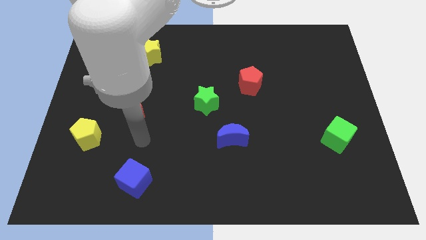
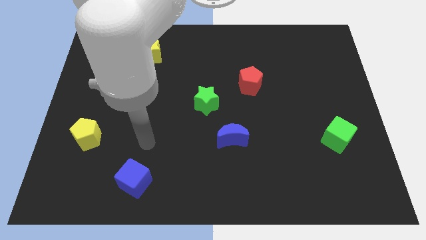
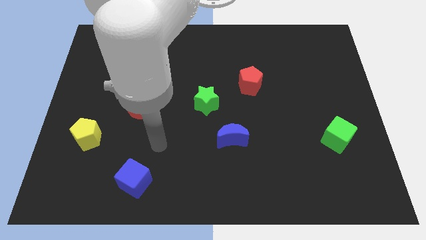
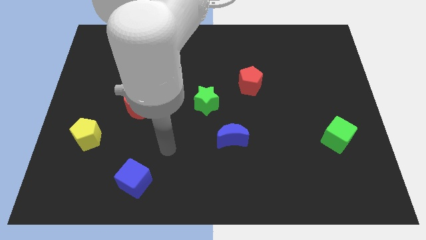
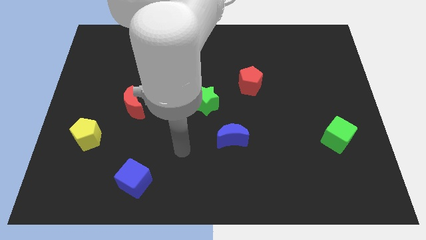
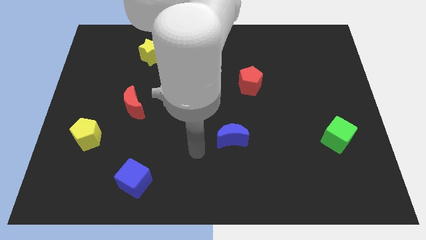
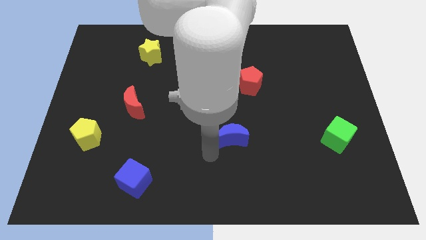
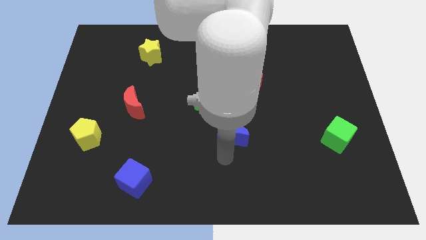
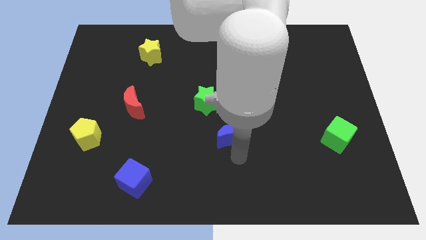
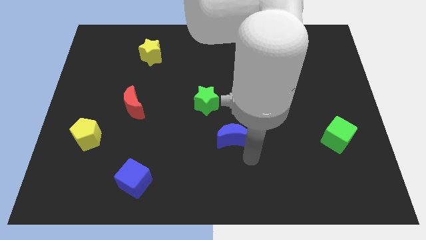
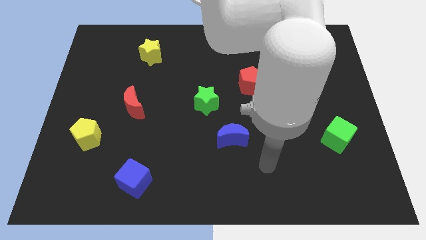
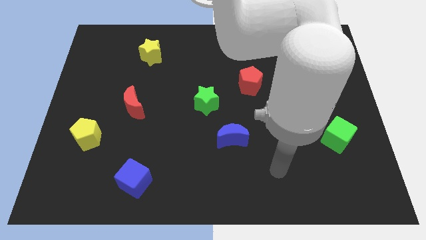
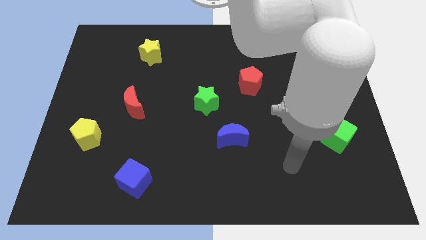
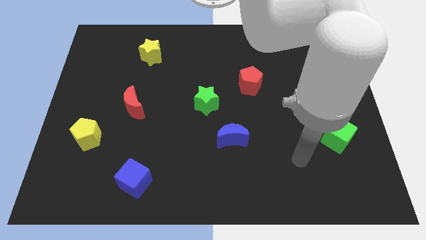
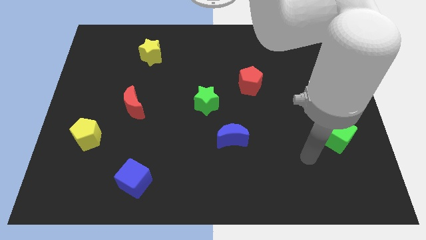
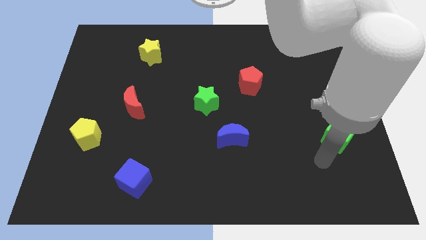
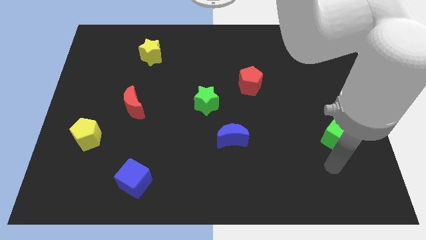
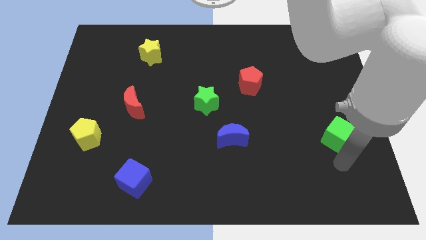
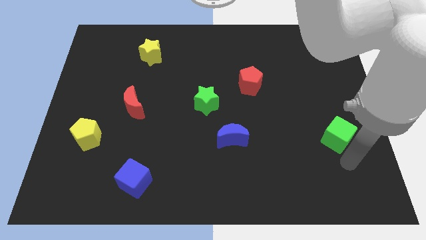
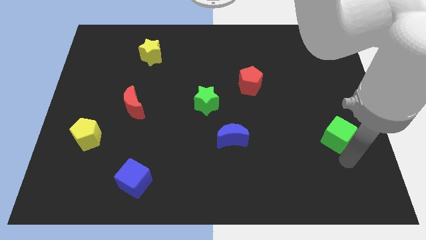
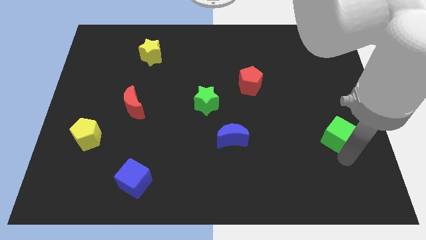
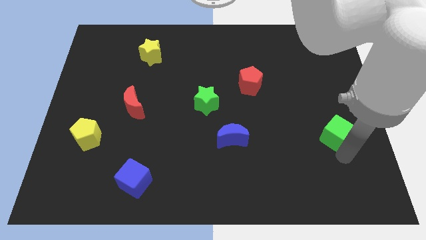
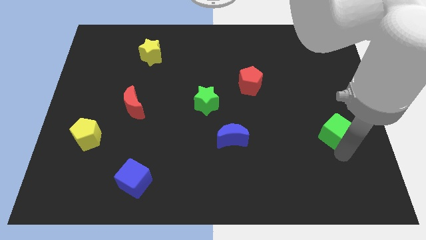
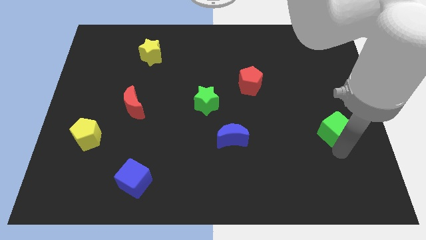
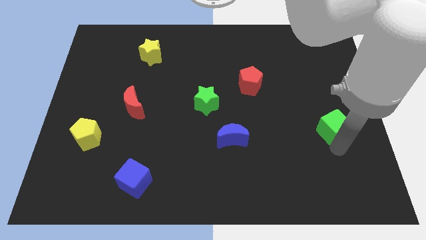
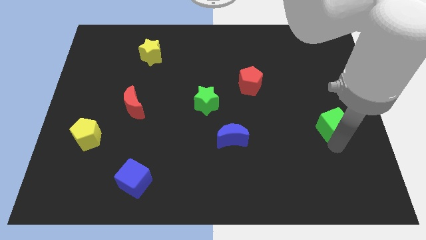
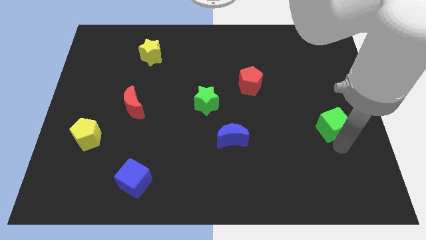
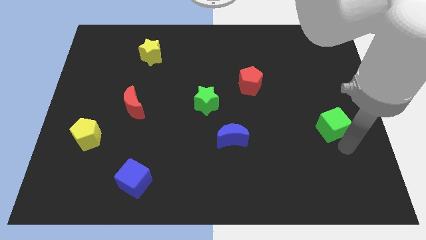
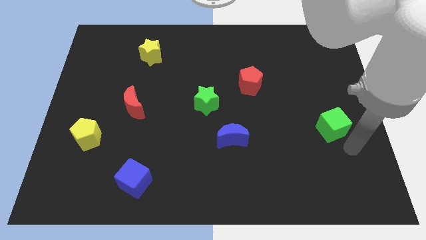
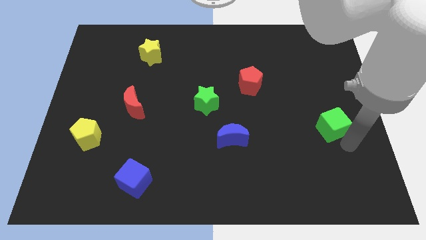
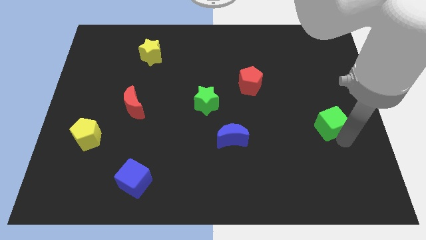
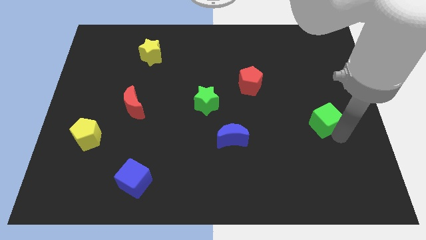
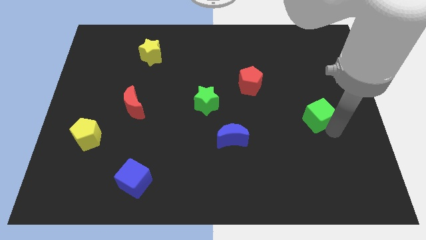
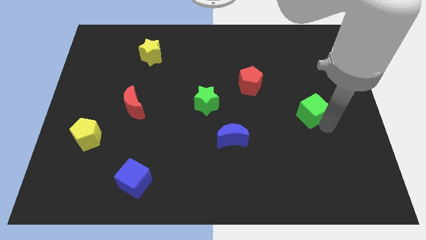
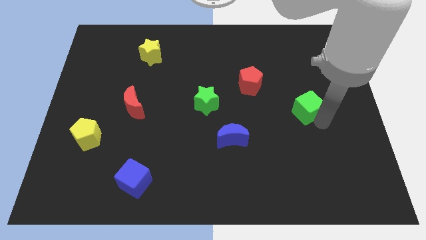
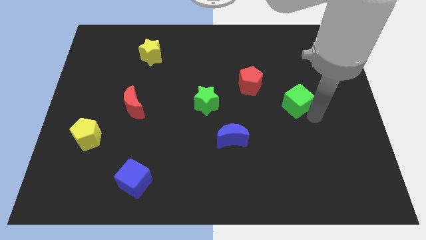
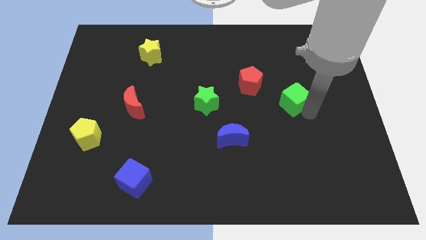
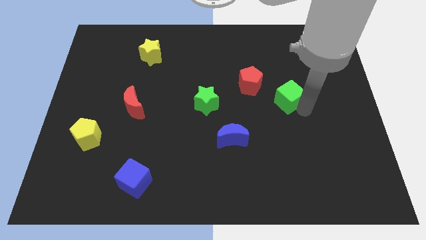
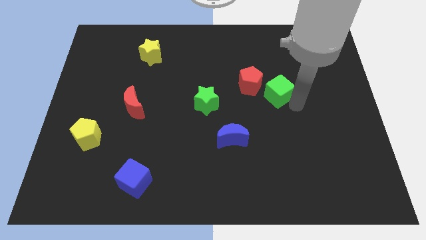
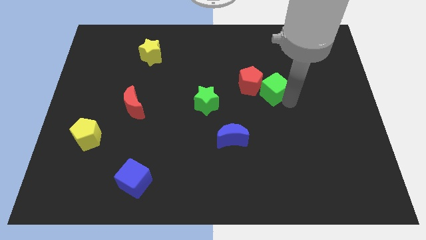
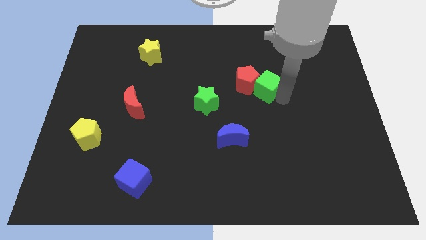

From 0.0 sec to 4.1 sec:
move the green cube up and then to the left

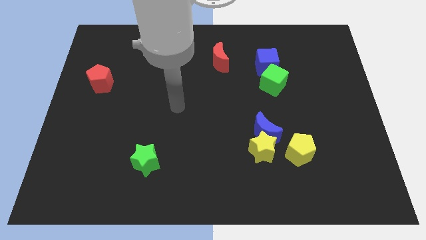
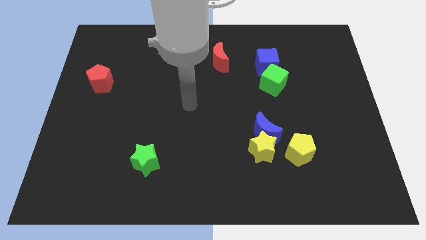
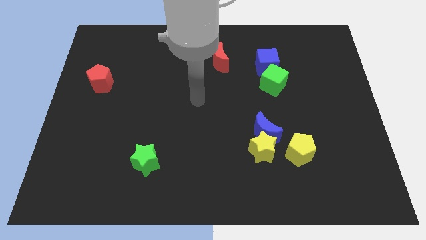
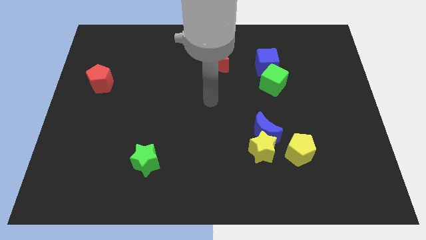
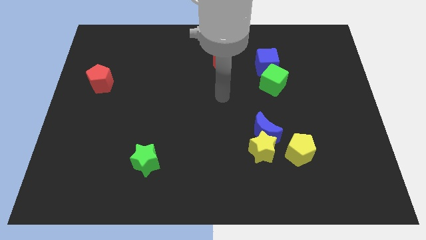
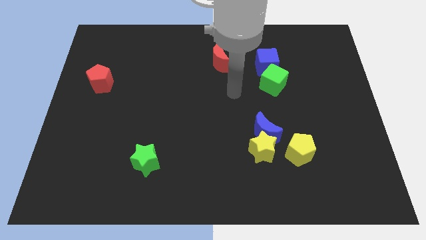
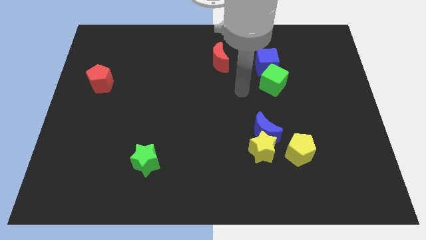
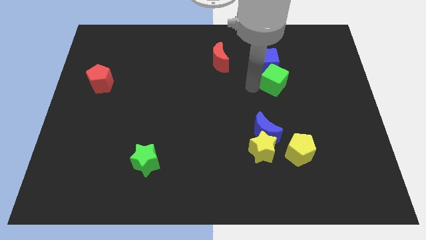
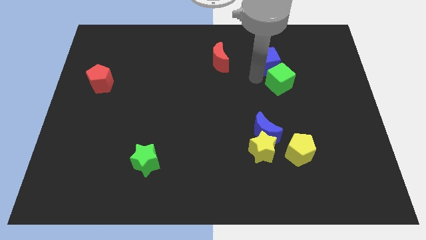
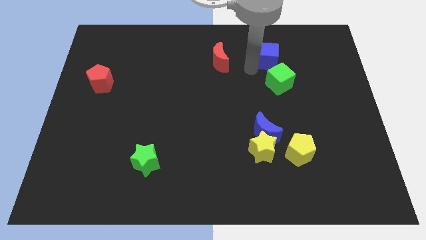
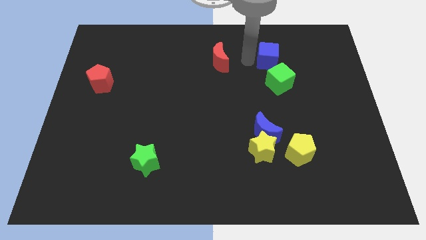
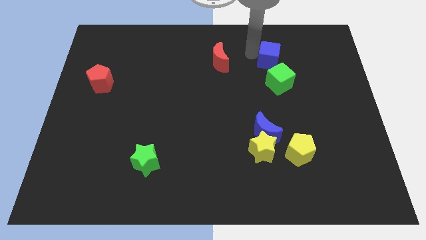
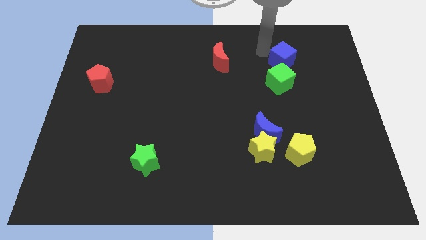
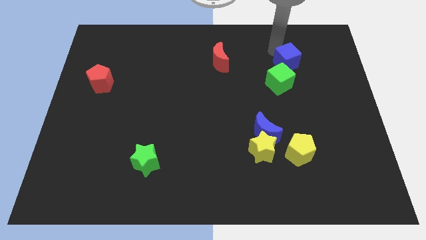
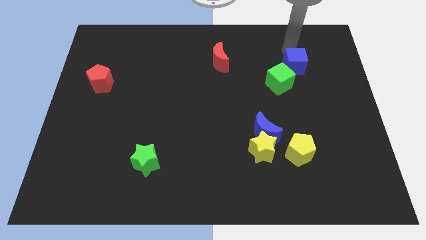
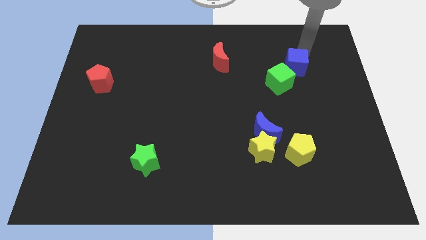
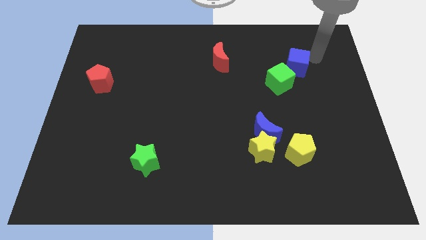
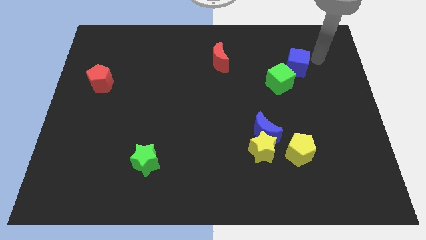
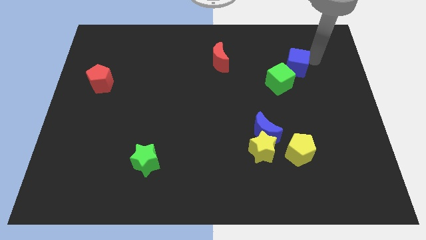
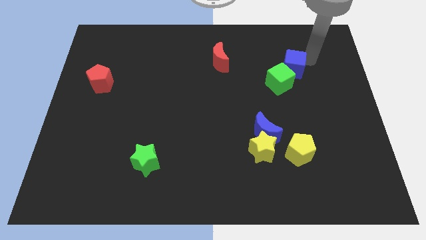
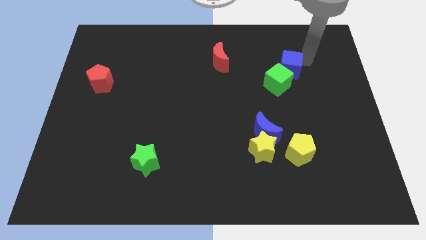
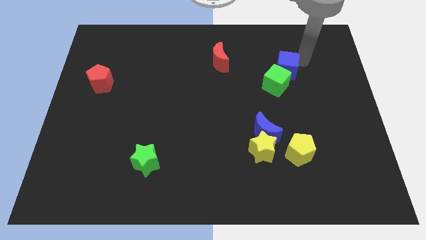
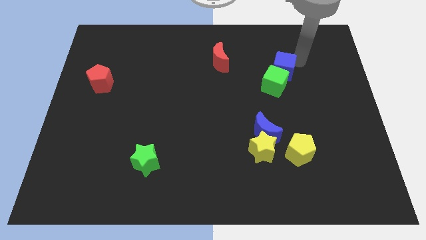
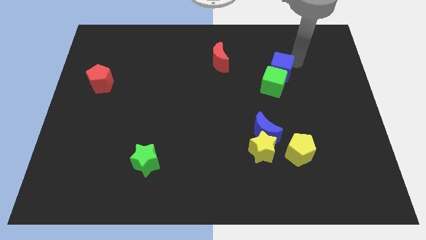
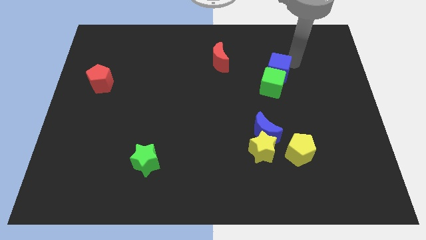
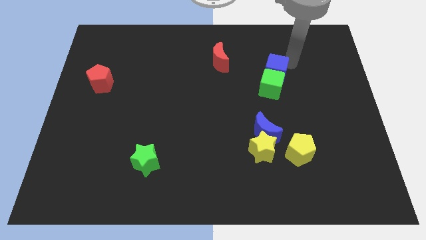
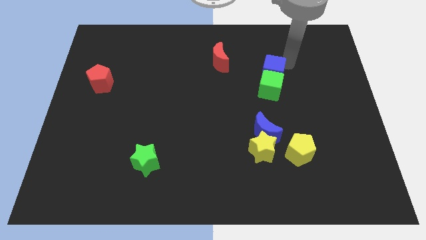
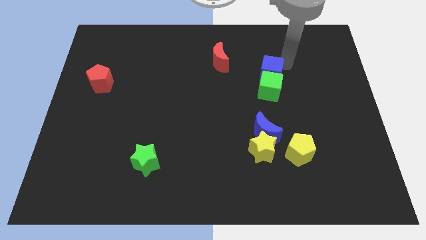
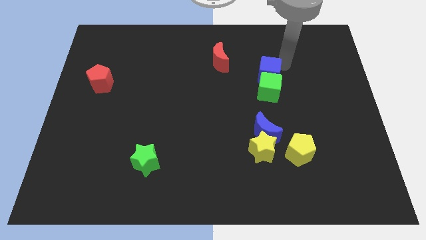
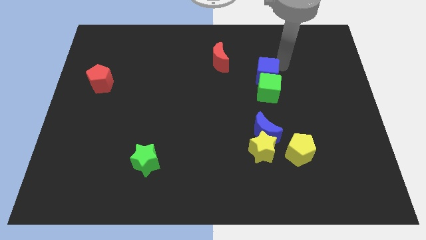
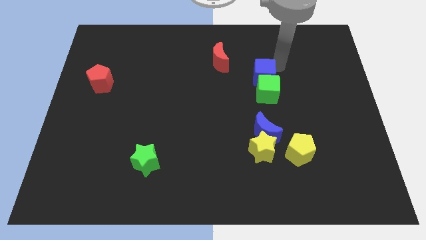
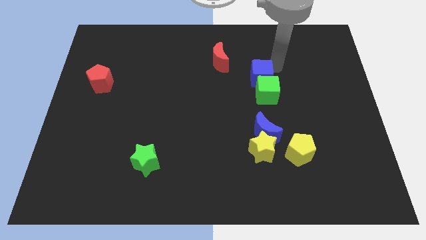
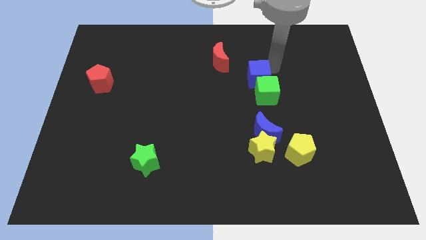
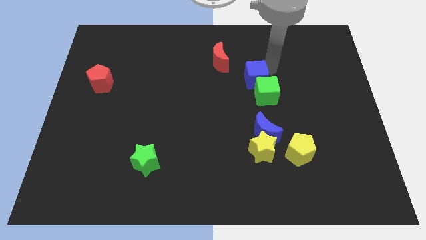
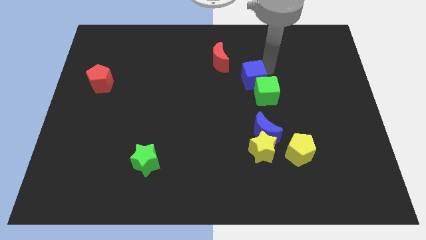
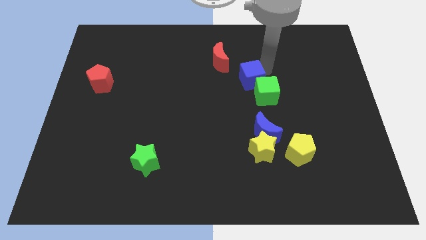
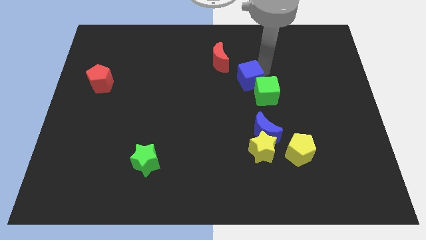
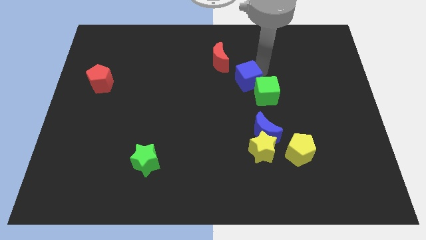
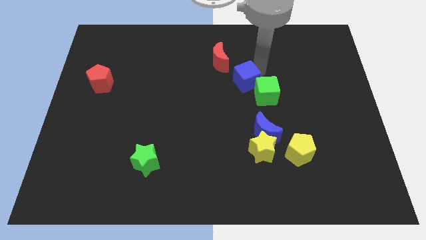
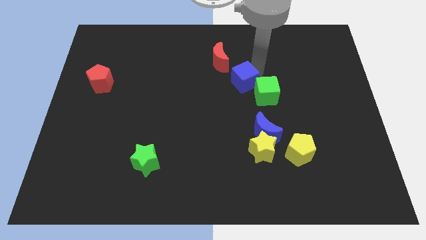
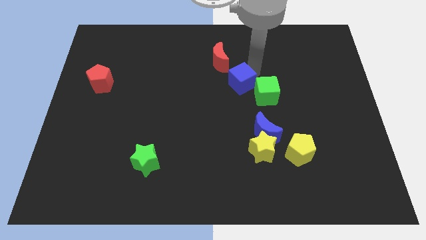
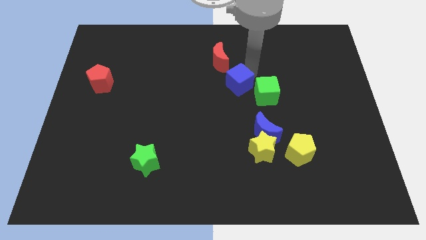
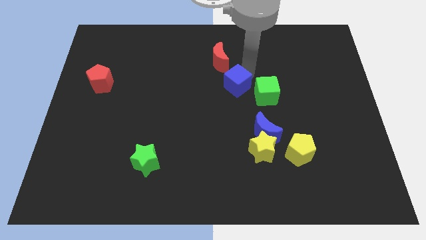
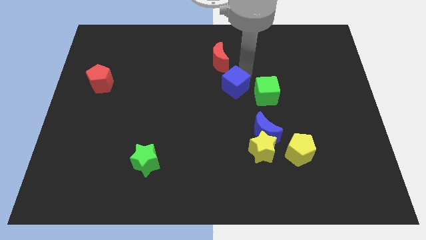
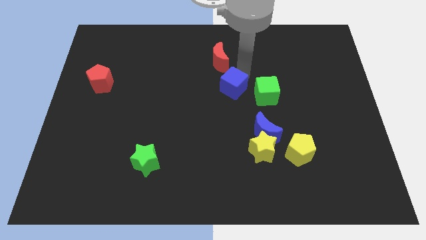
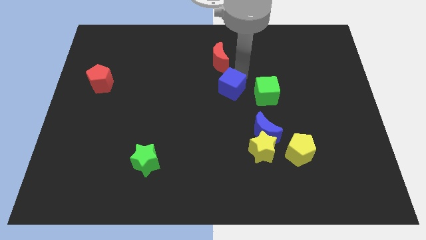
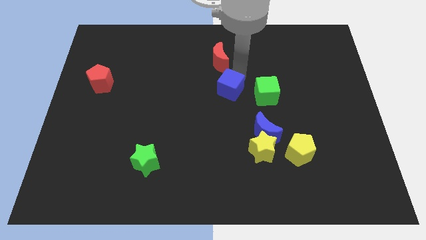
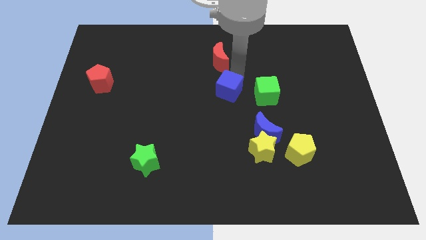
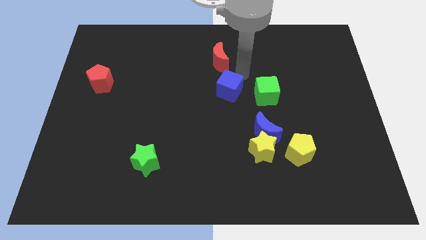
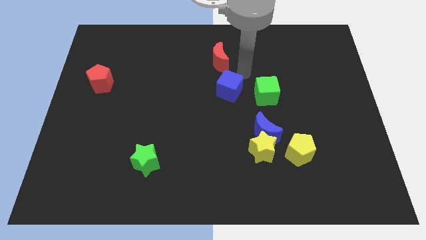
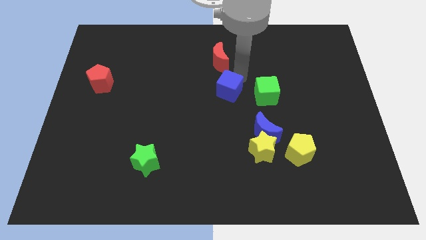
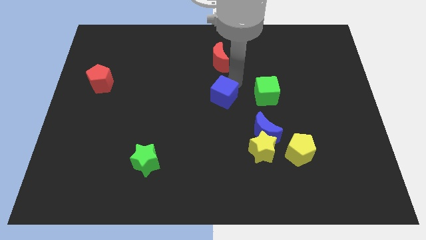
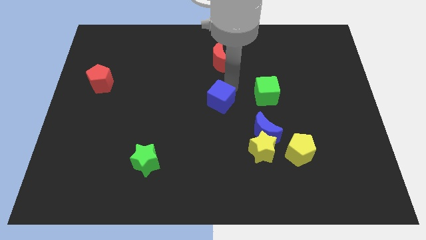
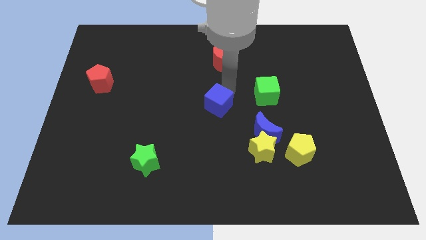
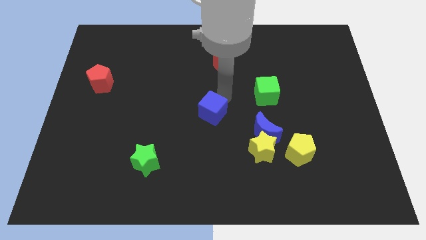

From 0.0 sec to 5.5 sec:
move the blue cube down and left
